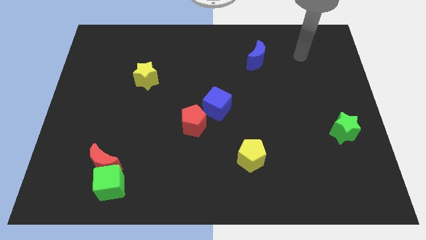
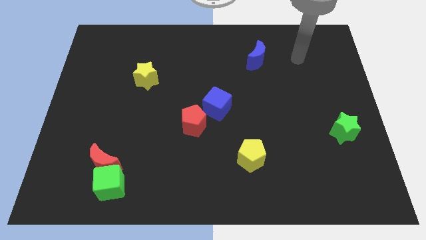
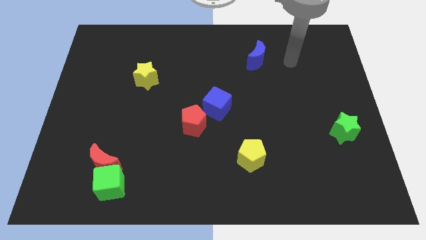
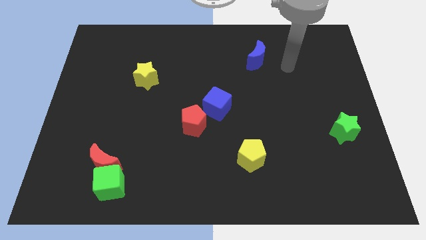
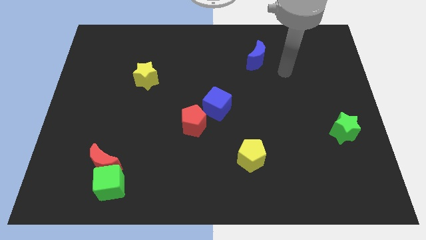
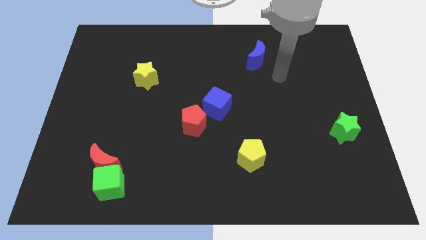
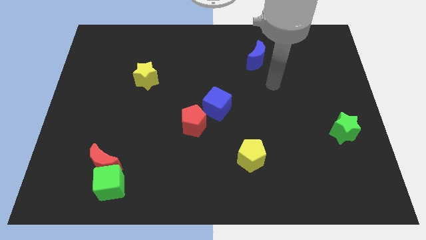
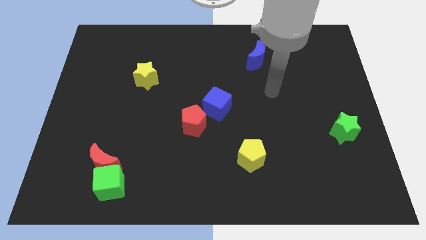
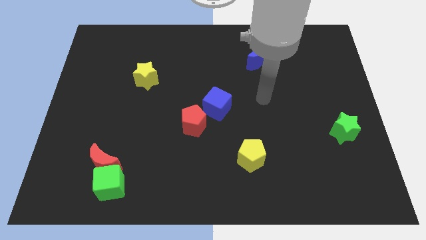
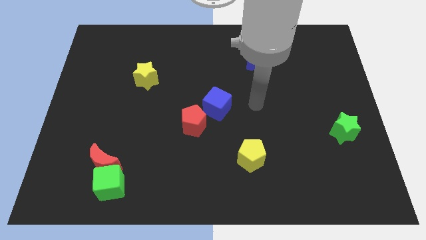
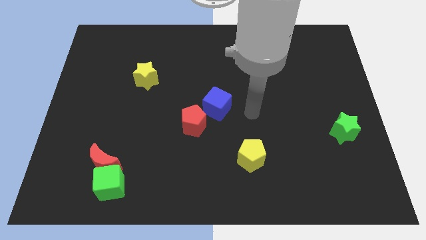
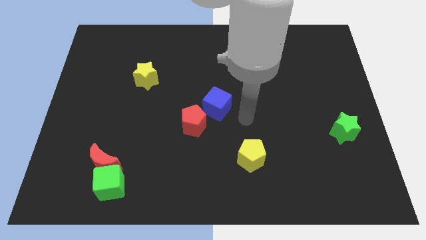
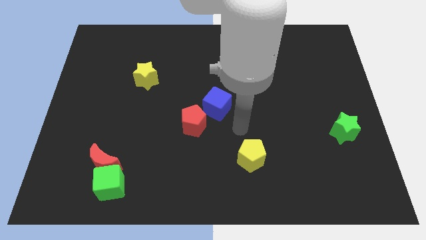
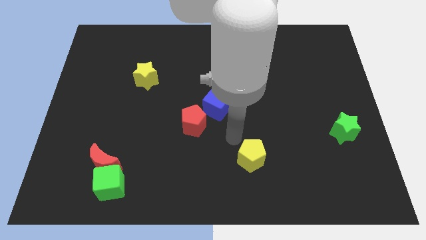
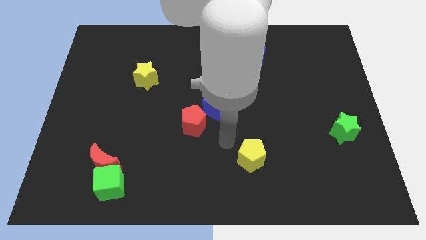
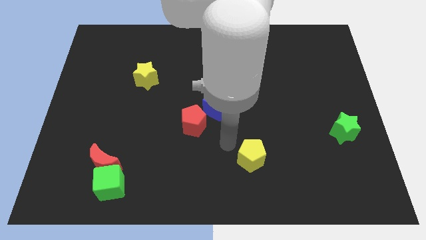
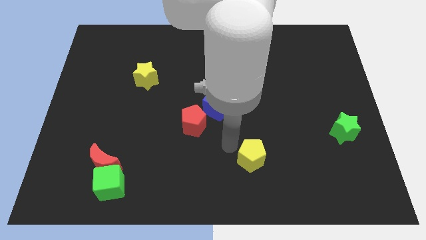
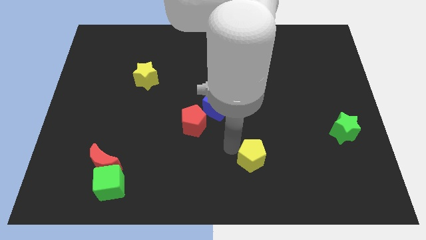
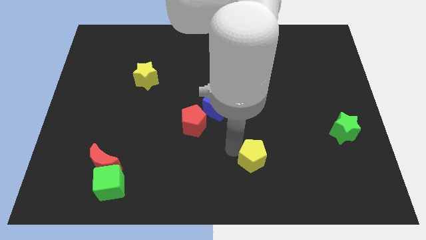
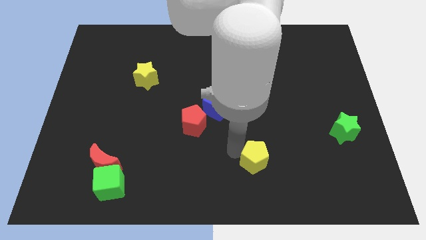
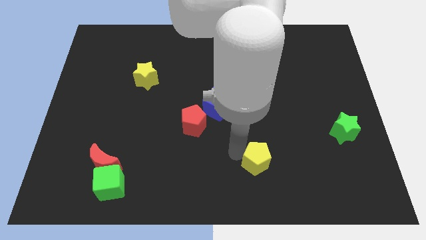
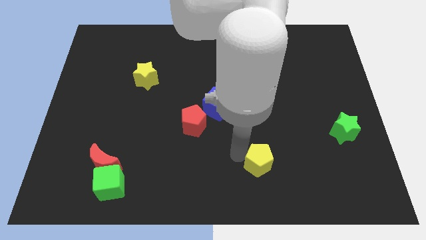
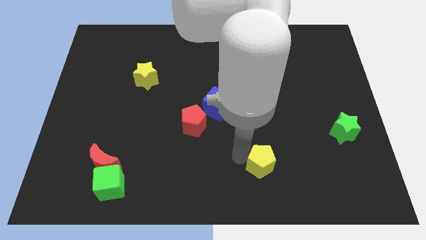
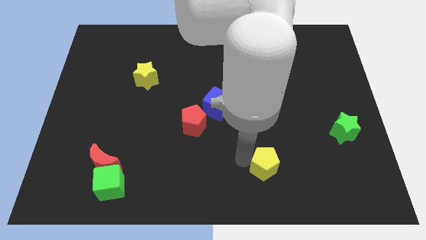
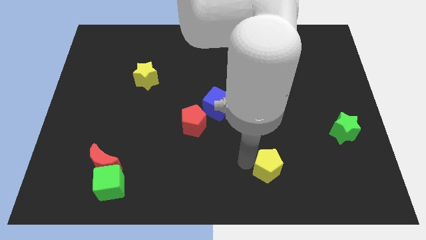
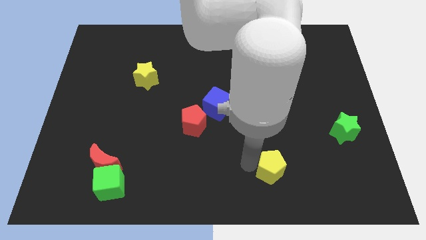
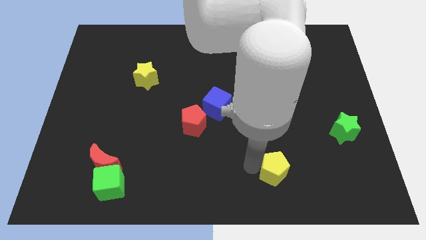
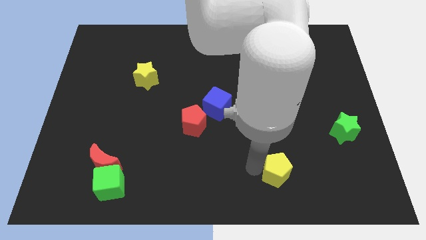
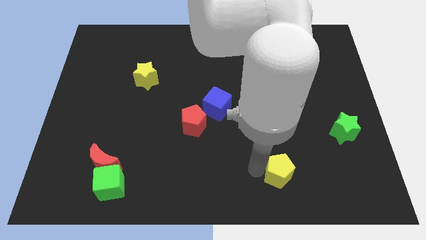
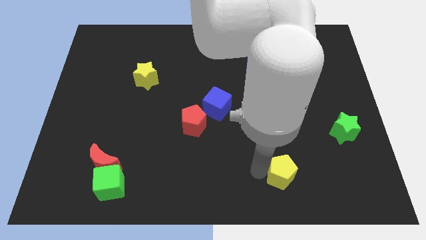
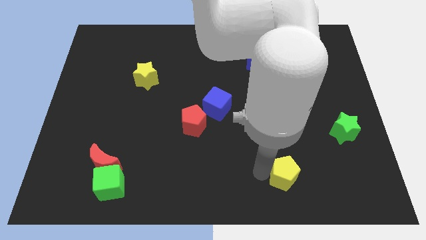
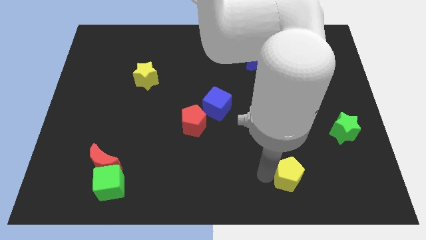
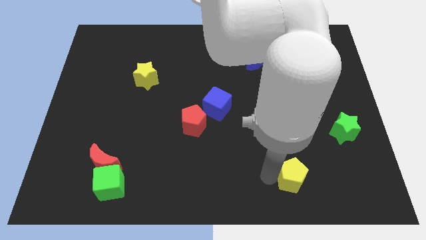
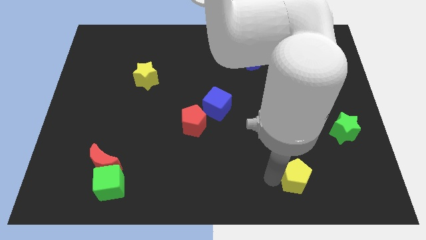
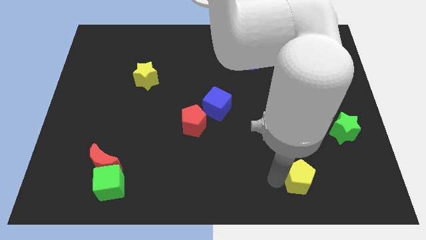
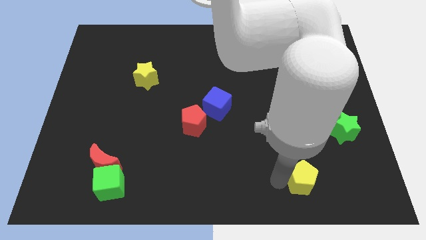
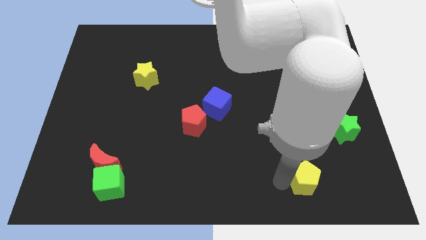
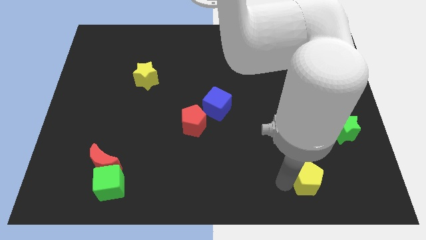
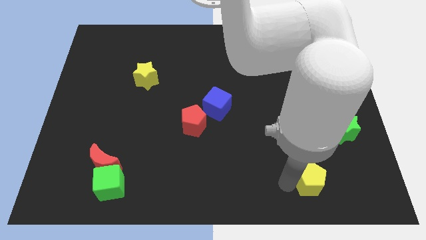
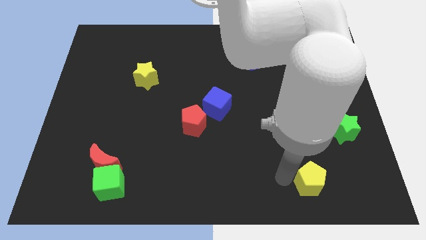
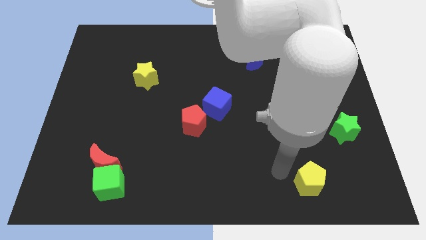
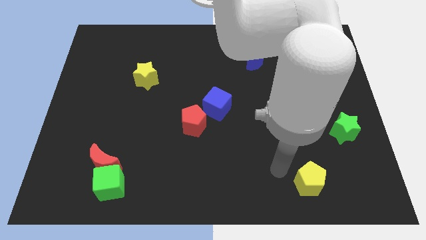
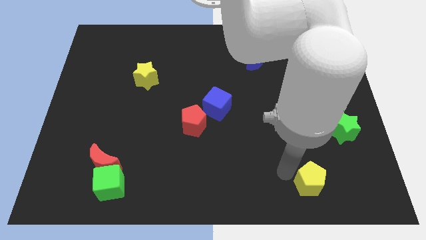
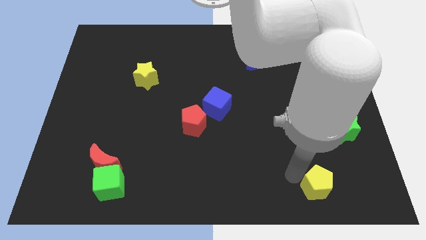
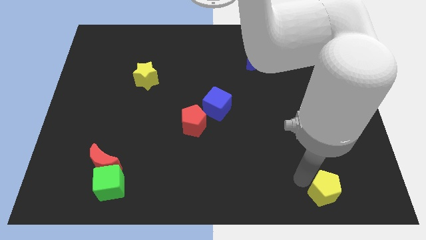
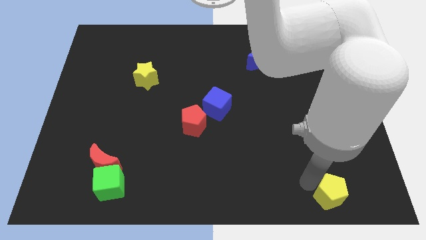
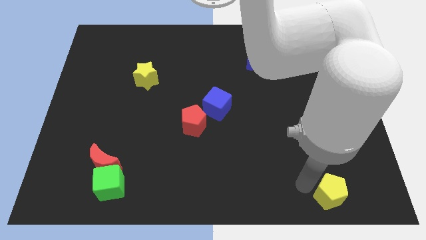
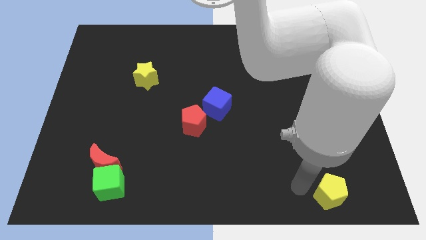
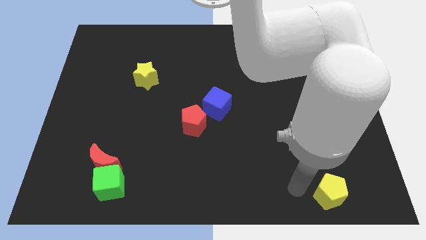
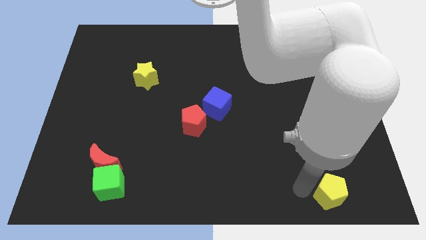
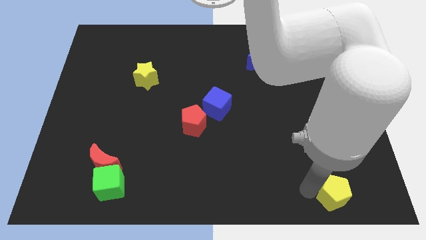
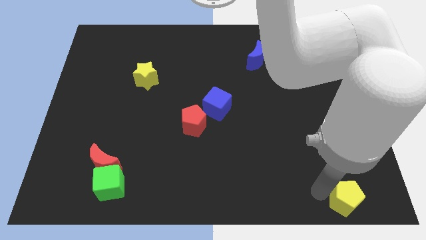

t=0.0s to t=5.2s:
slide the yellow pentagon to the lower right corner

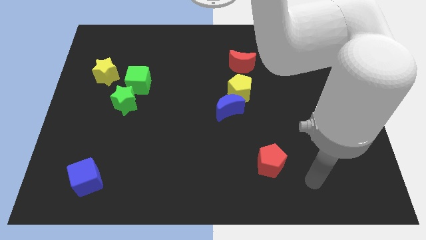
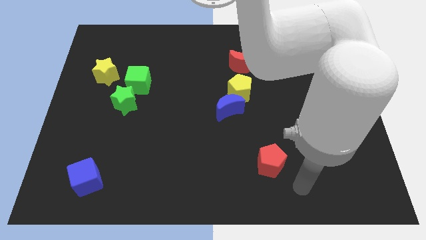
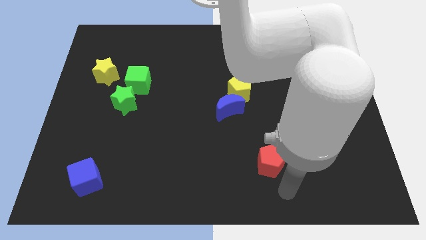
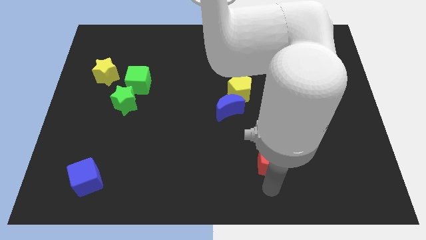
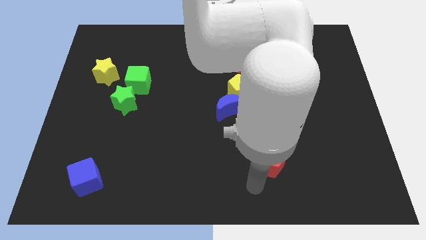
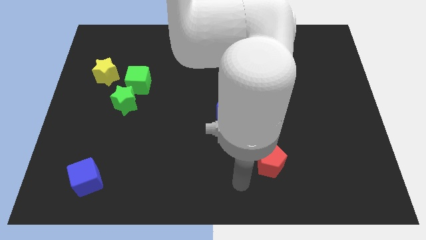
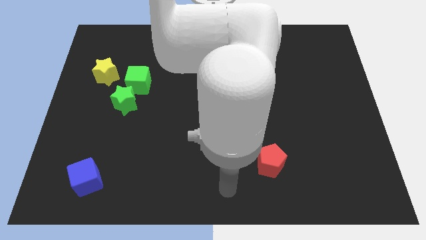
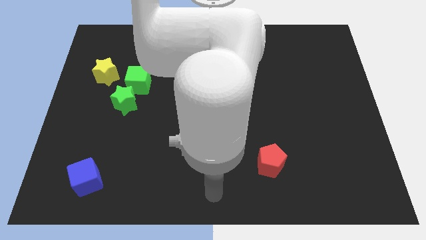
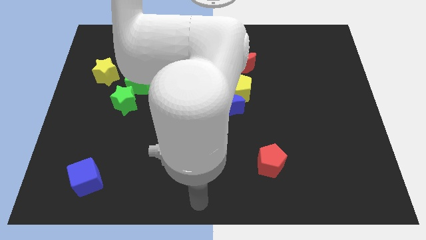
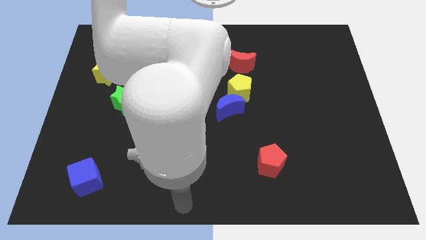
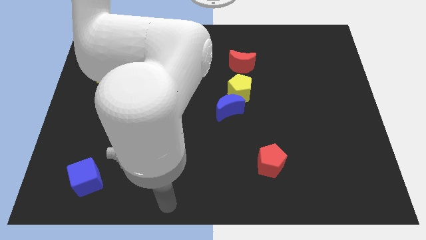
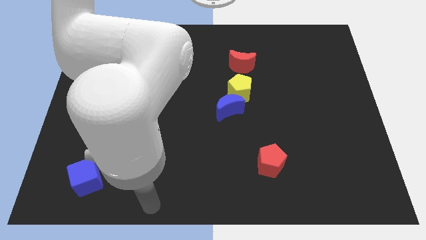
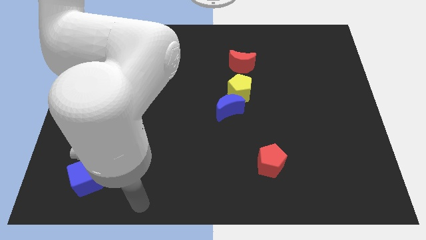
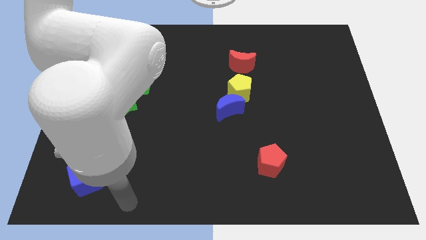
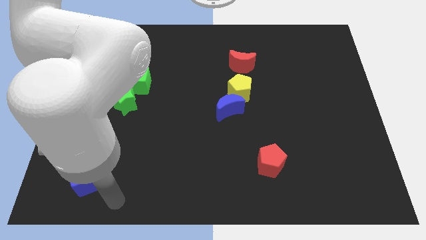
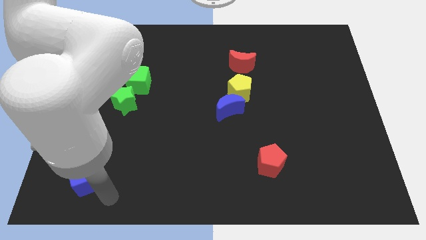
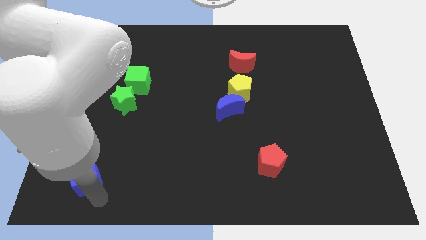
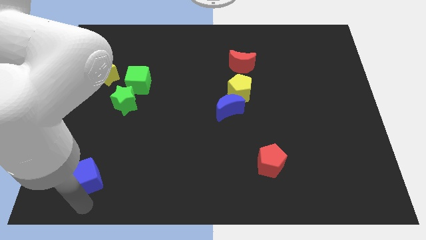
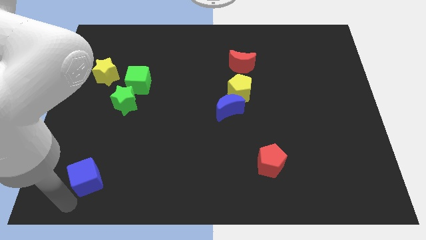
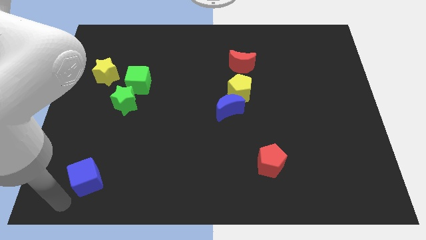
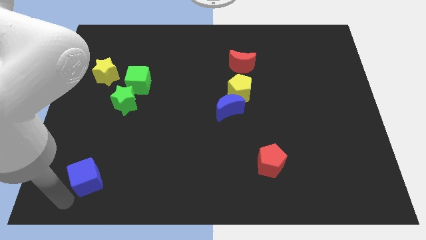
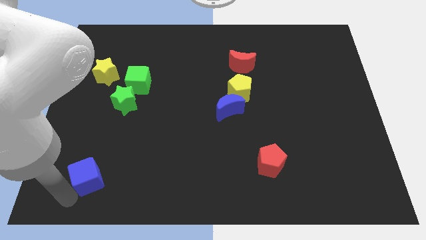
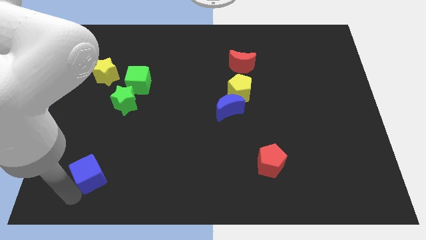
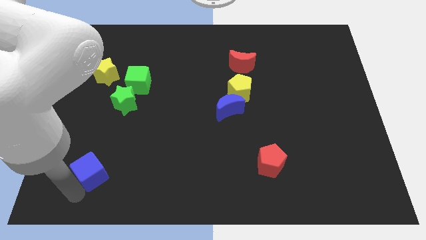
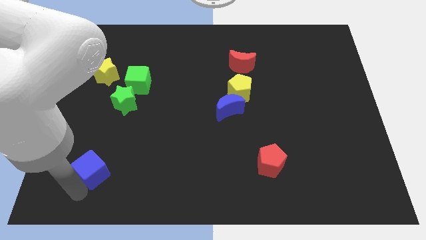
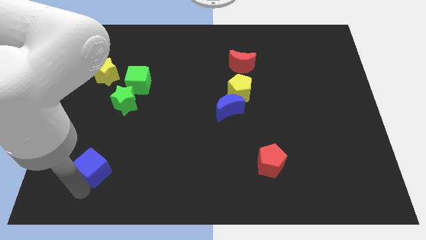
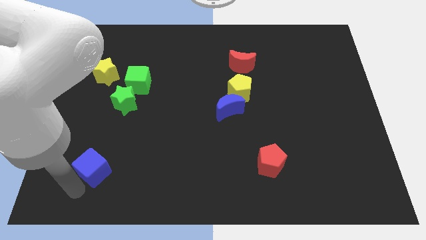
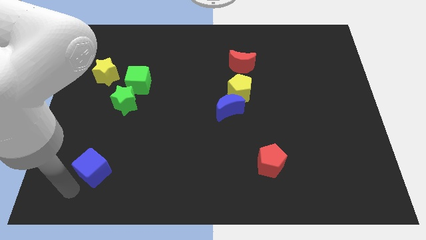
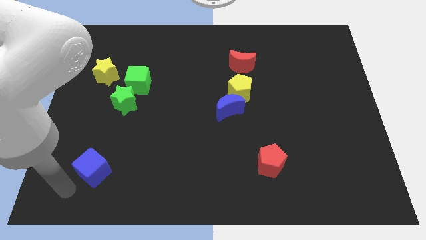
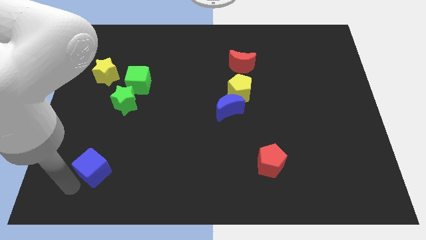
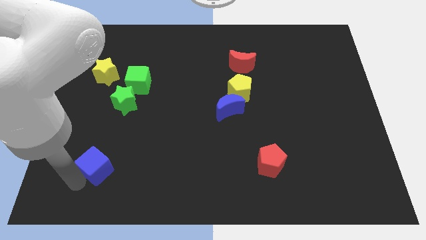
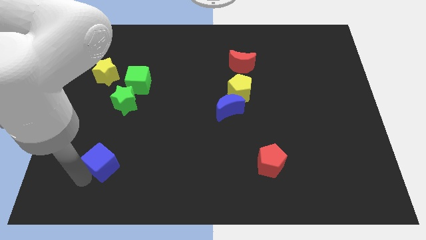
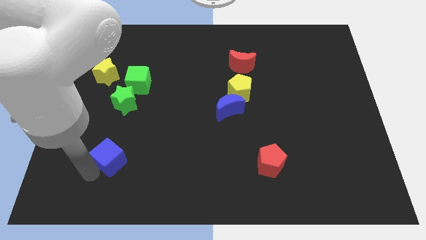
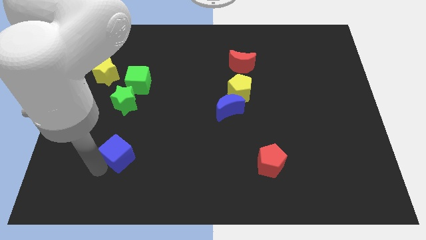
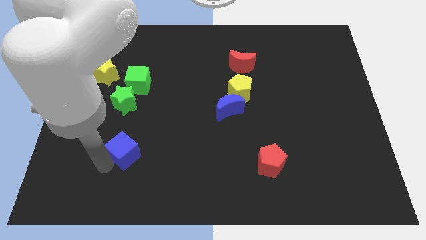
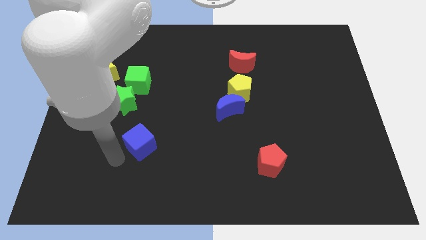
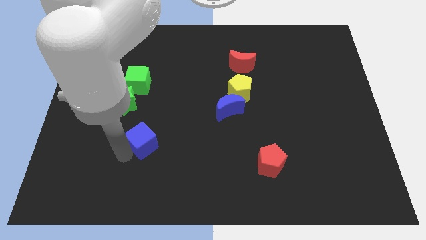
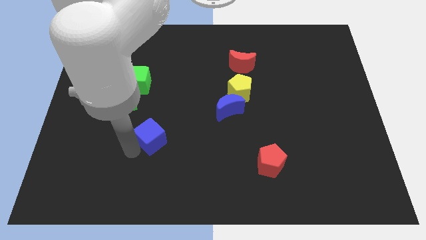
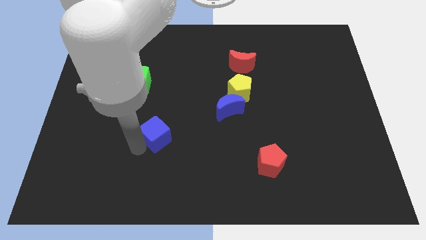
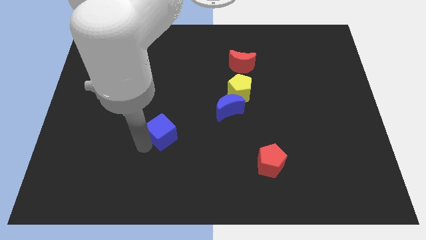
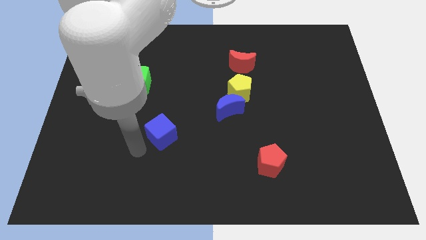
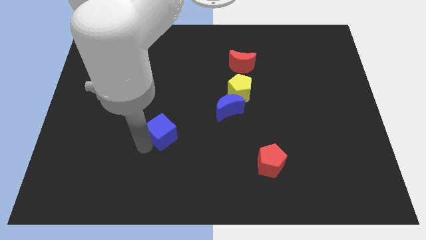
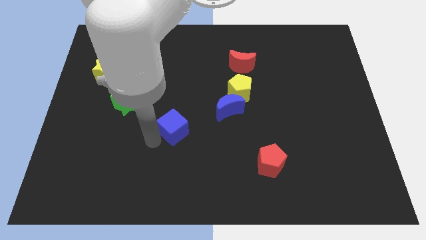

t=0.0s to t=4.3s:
move the blue cube to the middle of the board
